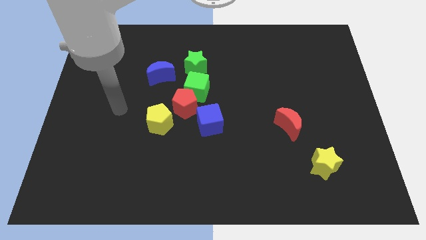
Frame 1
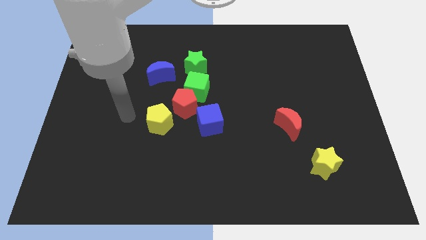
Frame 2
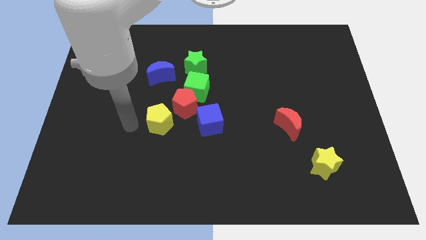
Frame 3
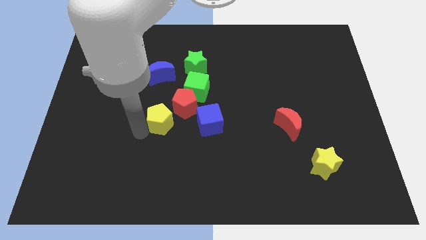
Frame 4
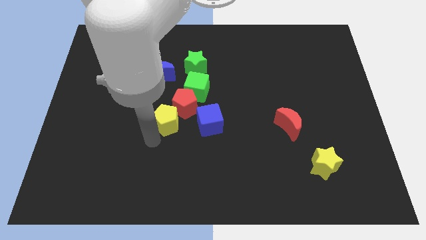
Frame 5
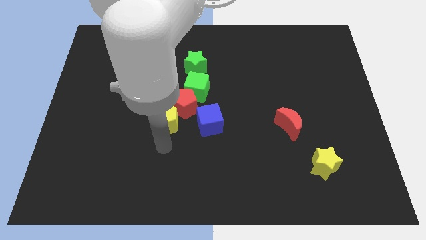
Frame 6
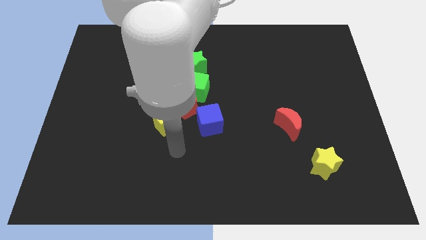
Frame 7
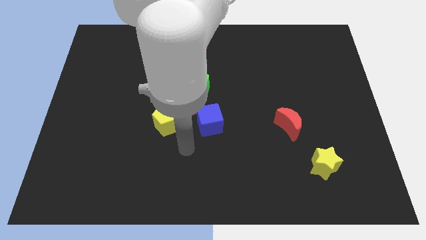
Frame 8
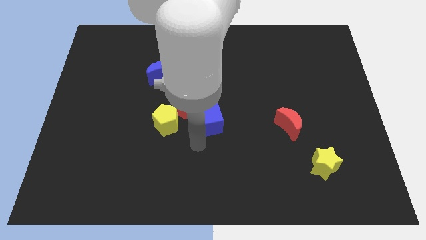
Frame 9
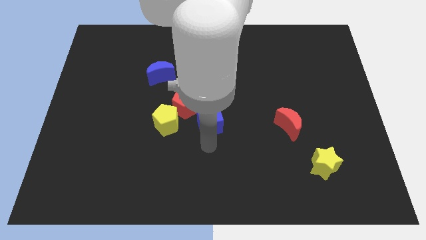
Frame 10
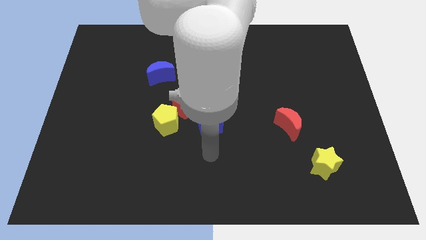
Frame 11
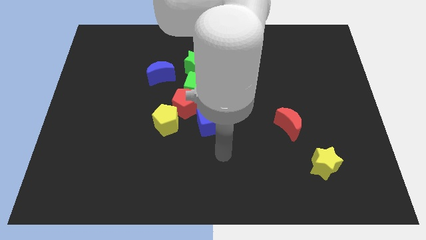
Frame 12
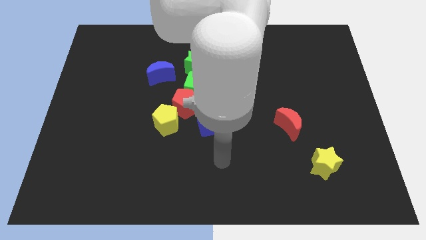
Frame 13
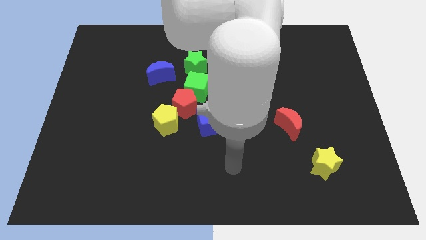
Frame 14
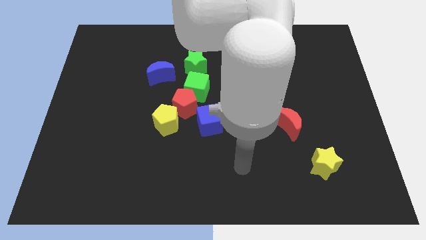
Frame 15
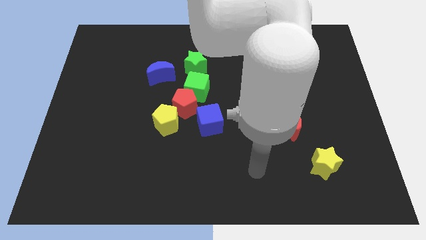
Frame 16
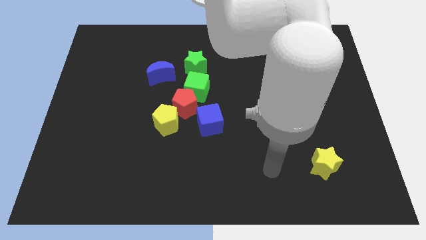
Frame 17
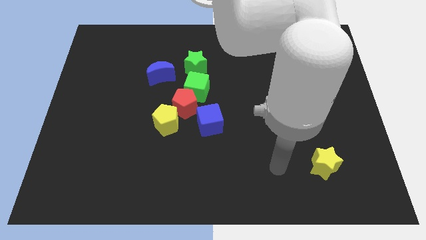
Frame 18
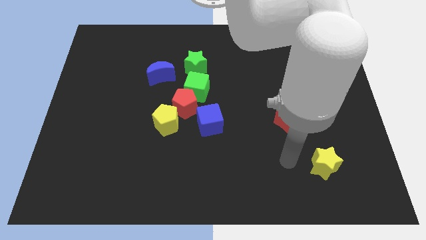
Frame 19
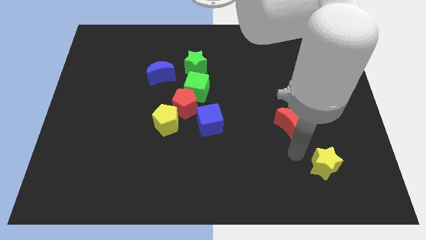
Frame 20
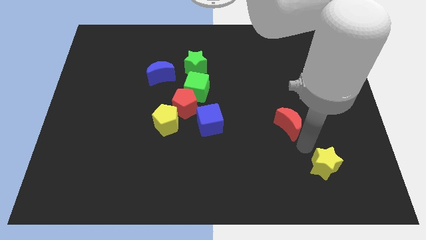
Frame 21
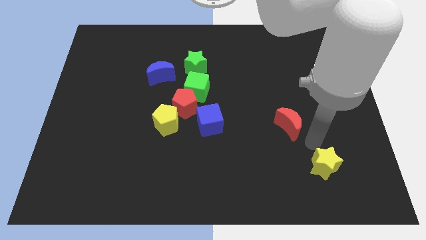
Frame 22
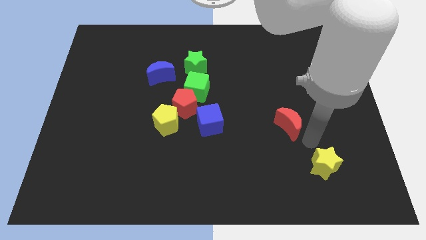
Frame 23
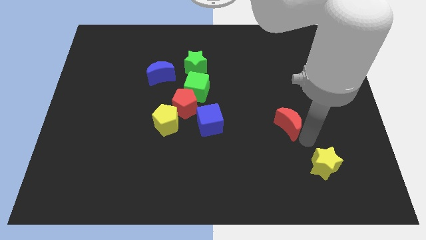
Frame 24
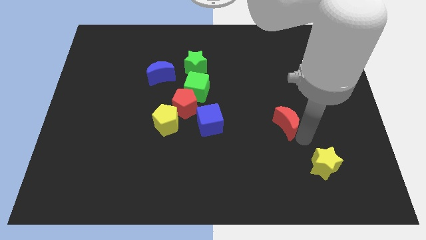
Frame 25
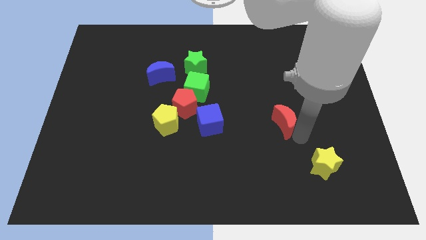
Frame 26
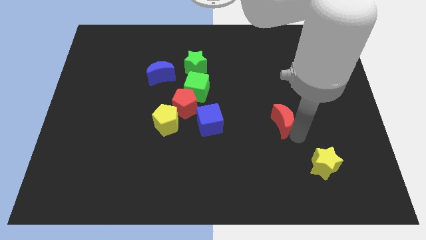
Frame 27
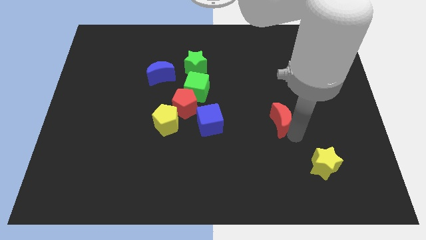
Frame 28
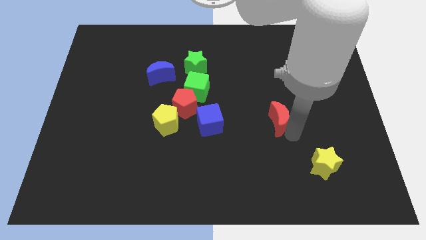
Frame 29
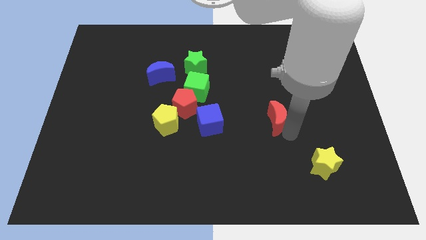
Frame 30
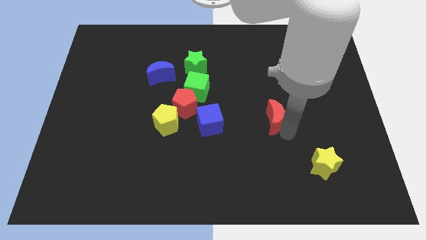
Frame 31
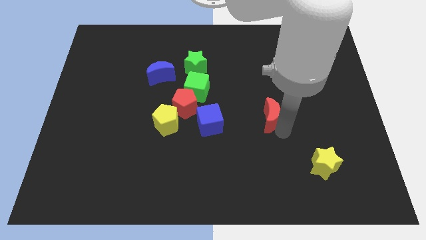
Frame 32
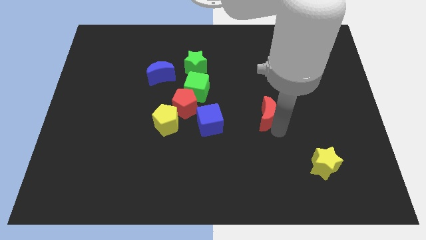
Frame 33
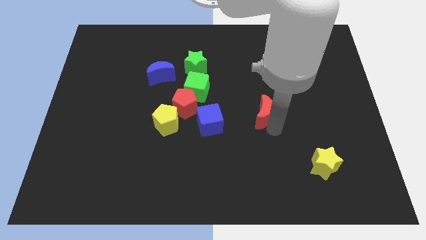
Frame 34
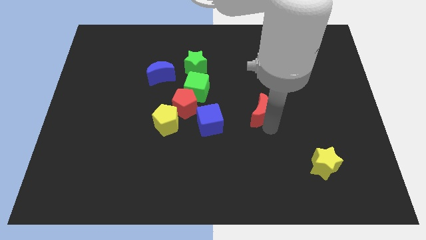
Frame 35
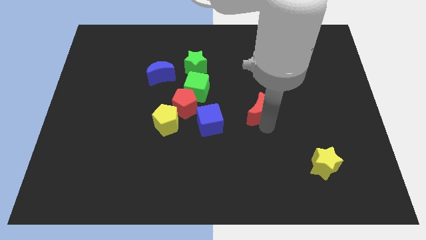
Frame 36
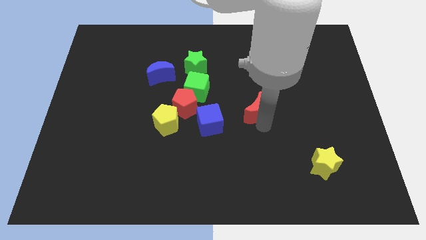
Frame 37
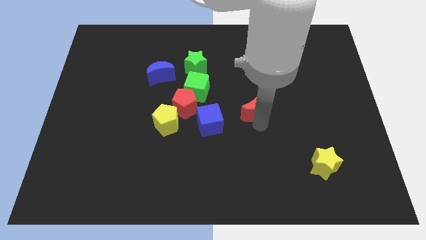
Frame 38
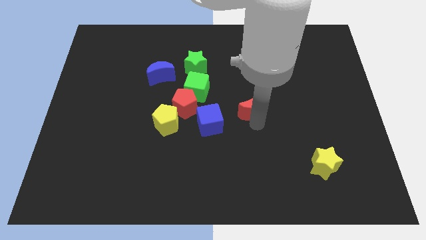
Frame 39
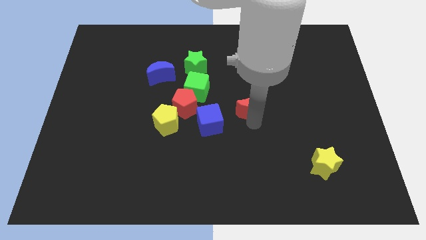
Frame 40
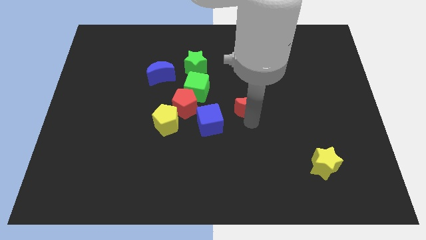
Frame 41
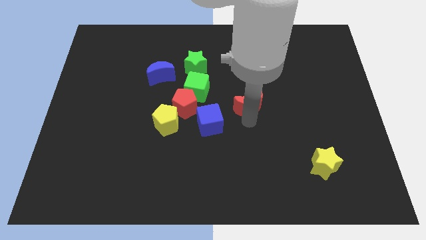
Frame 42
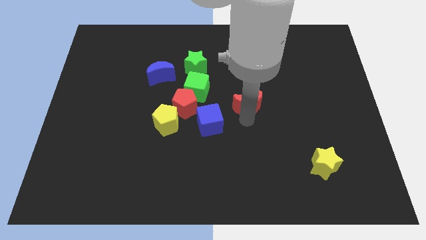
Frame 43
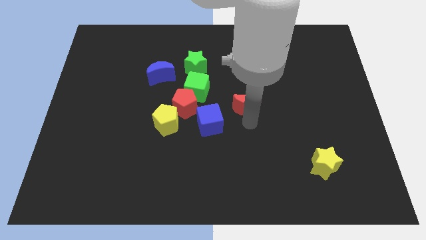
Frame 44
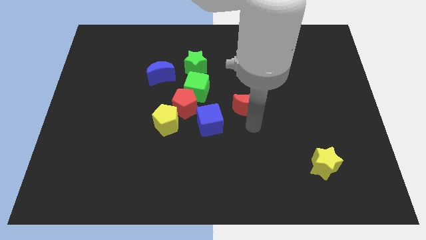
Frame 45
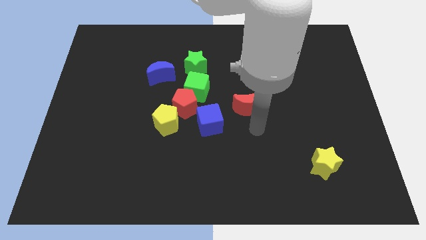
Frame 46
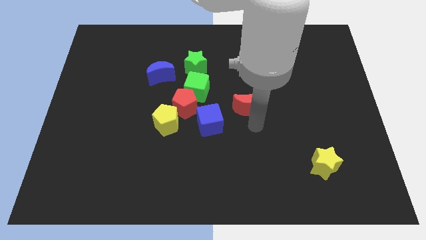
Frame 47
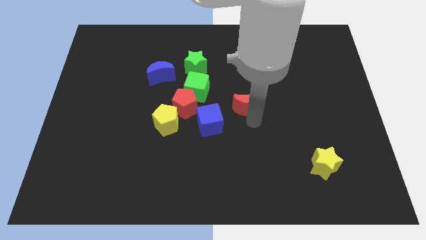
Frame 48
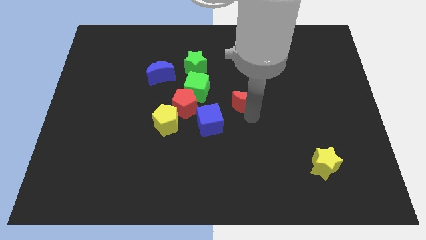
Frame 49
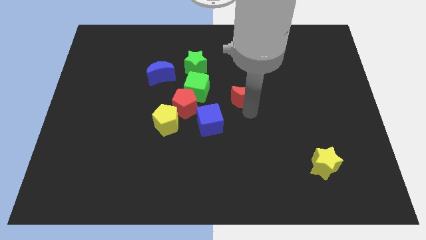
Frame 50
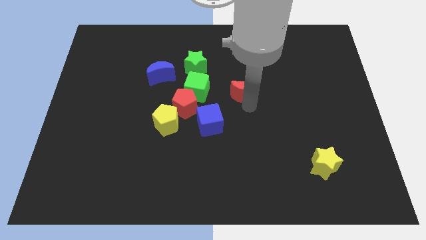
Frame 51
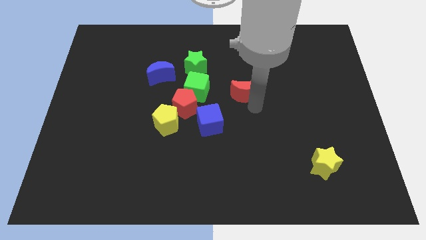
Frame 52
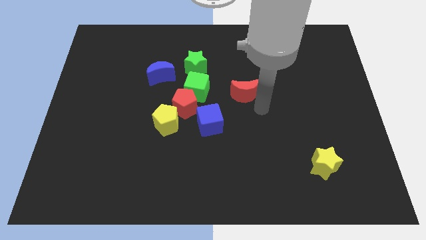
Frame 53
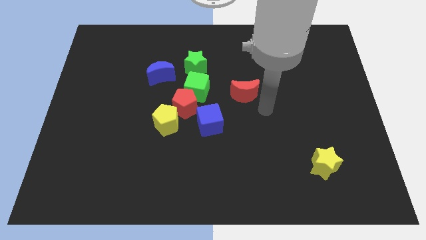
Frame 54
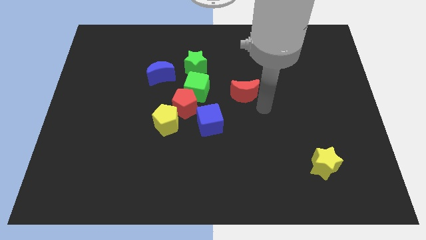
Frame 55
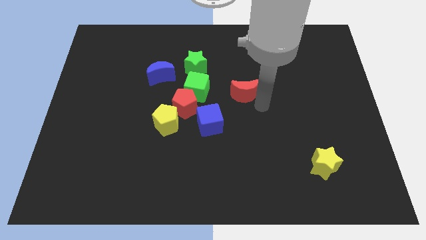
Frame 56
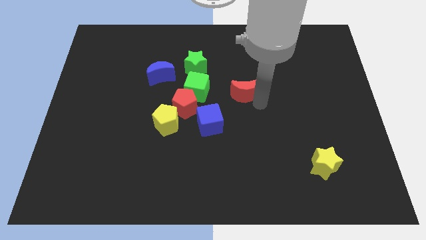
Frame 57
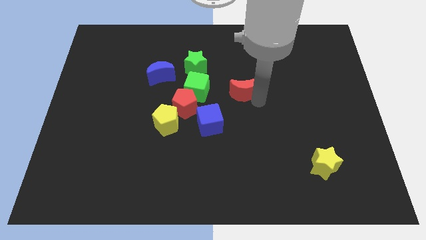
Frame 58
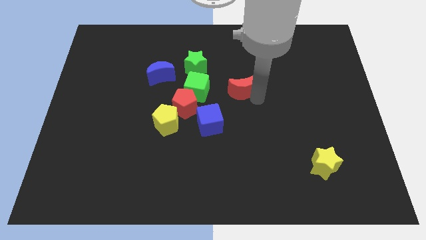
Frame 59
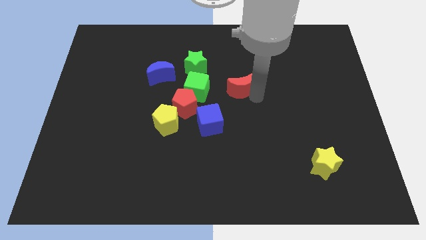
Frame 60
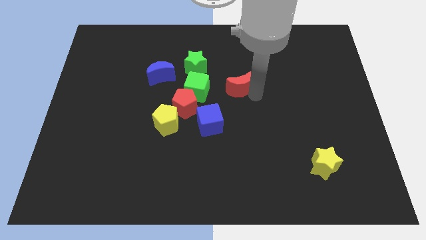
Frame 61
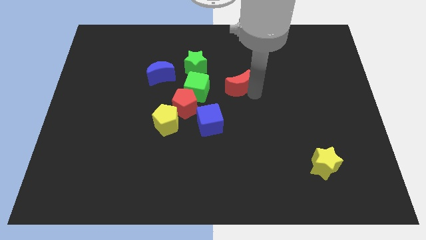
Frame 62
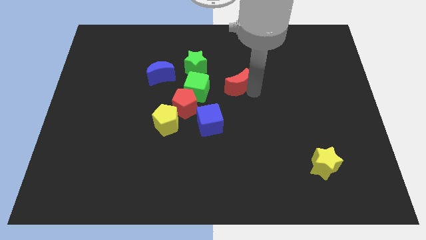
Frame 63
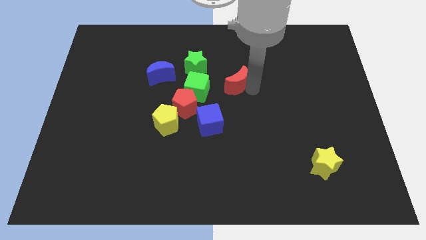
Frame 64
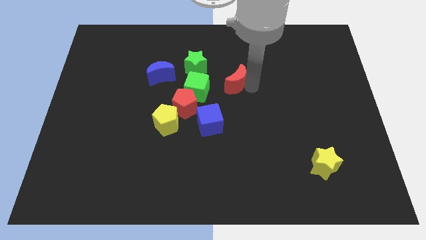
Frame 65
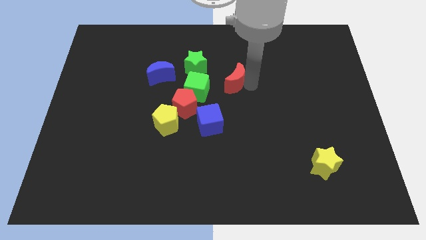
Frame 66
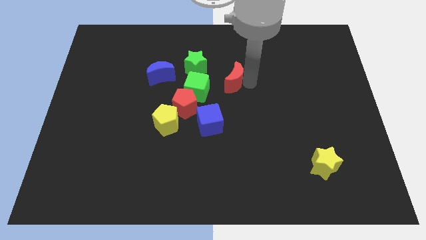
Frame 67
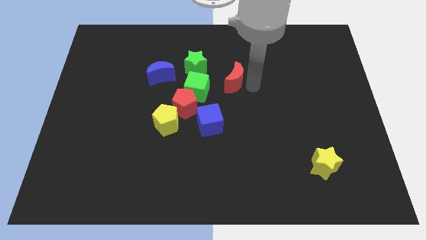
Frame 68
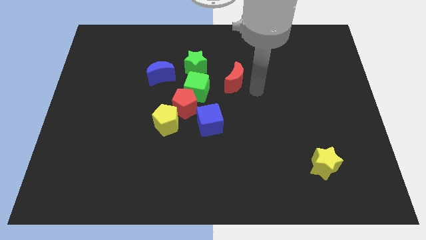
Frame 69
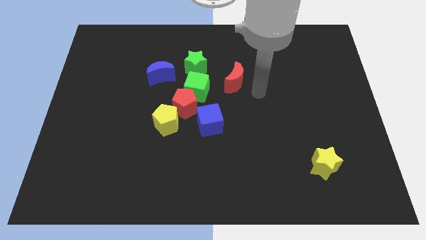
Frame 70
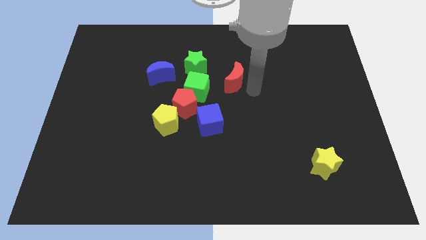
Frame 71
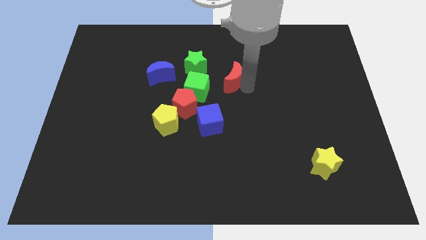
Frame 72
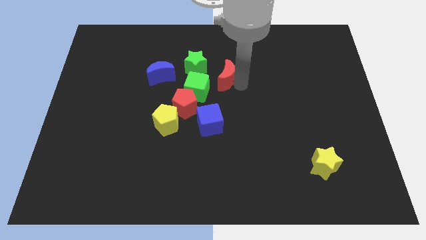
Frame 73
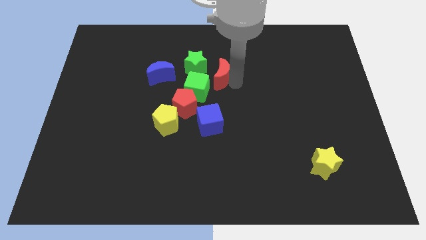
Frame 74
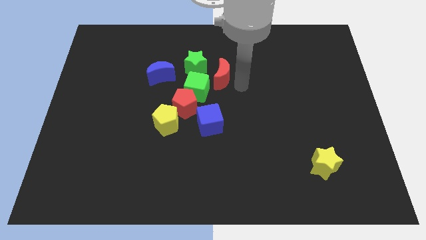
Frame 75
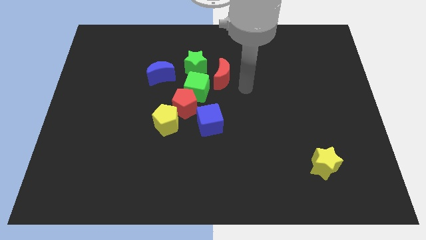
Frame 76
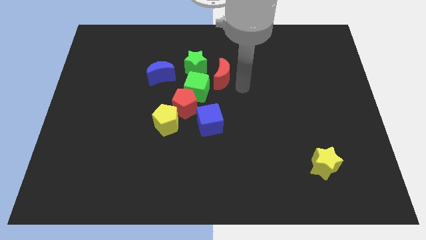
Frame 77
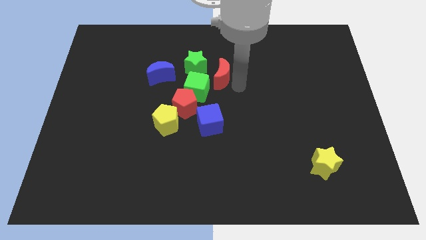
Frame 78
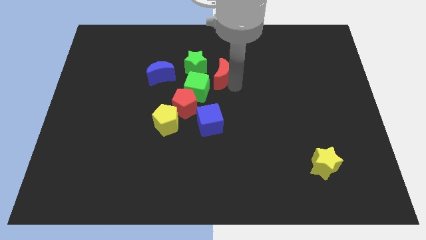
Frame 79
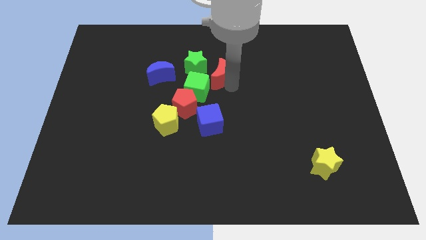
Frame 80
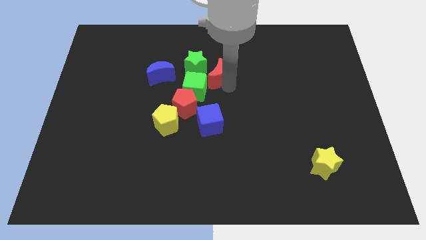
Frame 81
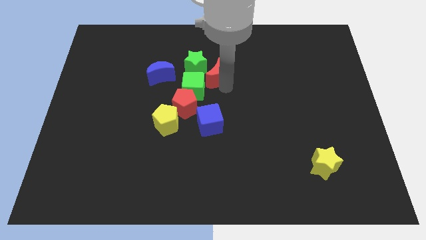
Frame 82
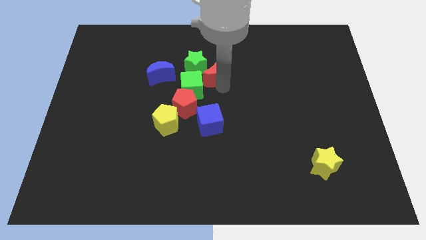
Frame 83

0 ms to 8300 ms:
slide the red moon towards the green star
